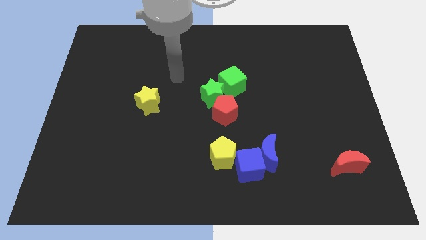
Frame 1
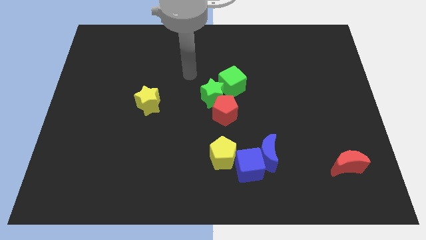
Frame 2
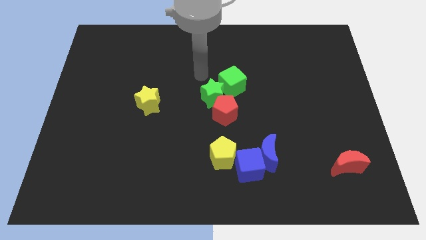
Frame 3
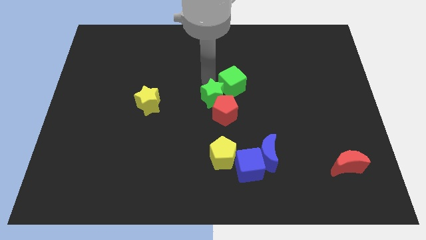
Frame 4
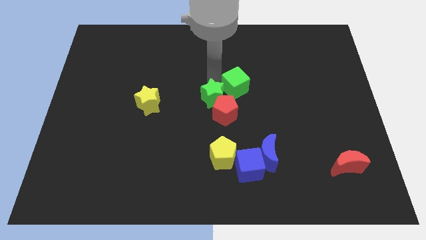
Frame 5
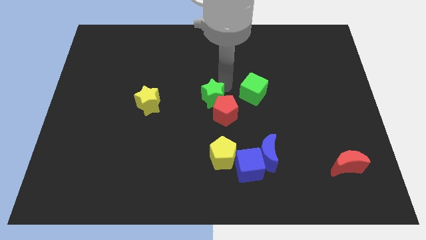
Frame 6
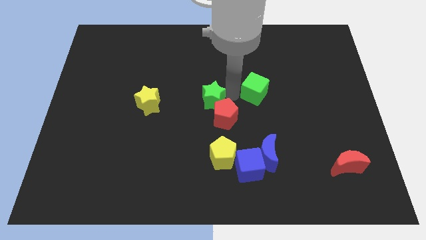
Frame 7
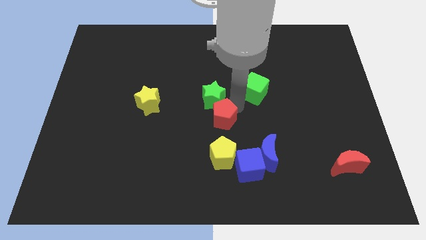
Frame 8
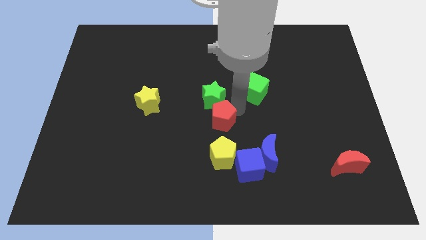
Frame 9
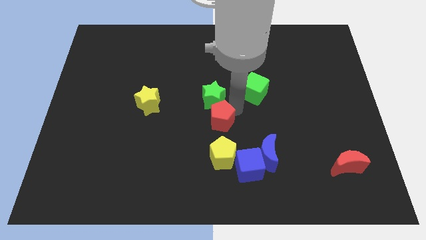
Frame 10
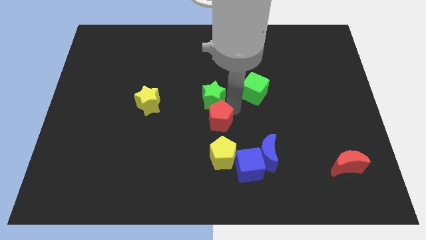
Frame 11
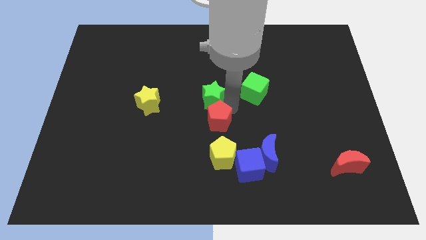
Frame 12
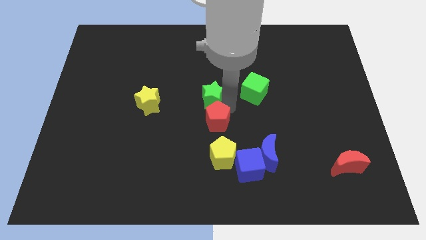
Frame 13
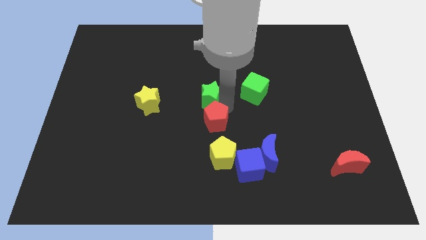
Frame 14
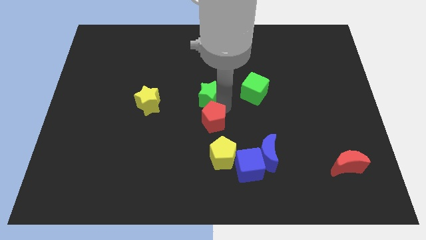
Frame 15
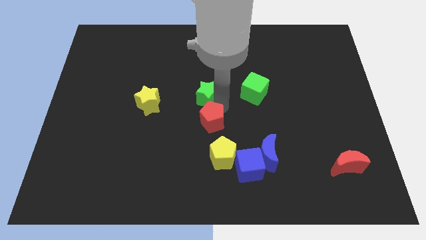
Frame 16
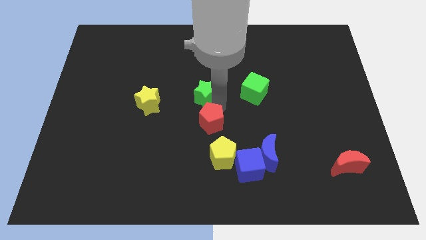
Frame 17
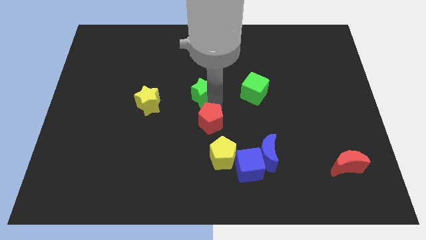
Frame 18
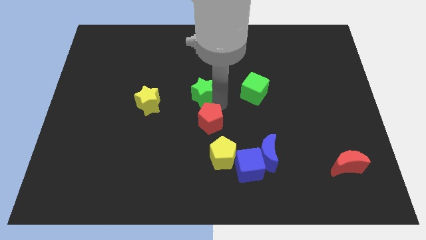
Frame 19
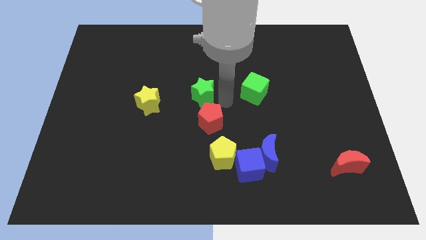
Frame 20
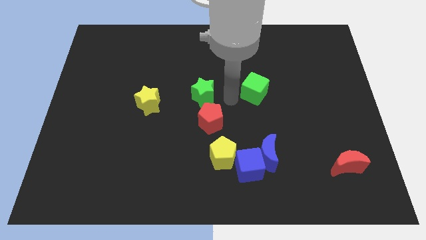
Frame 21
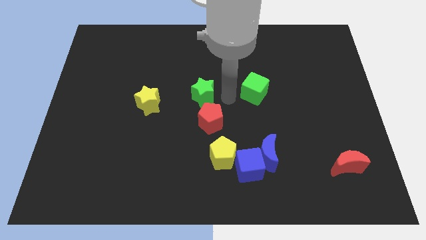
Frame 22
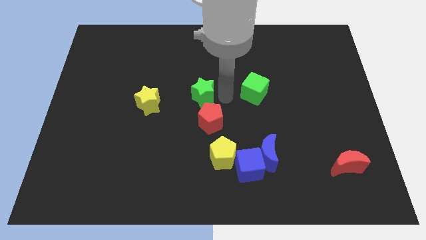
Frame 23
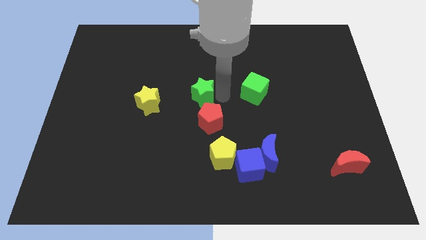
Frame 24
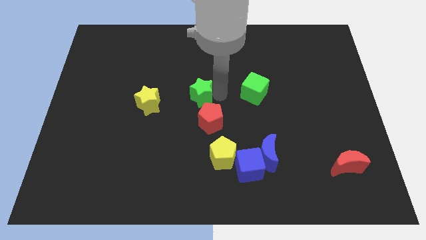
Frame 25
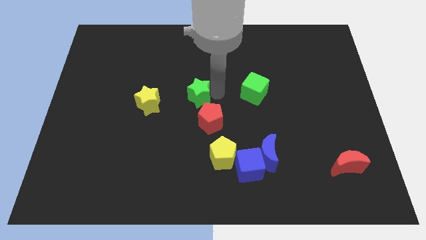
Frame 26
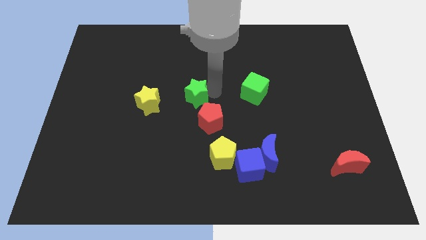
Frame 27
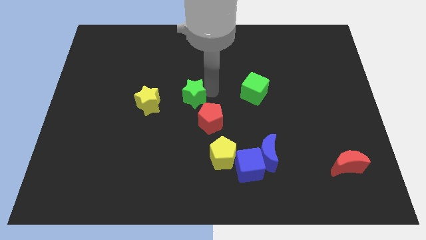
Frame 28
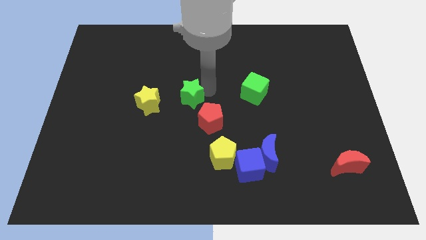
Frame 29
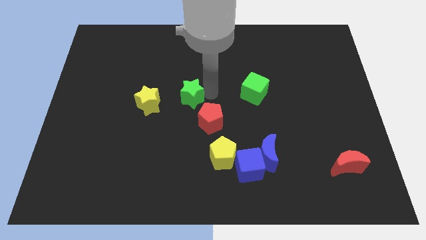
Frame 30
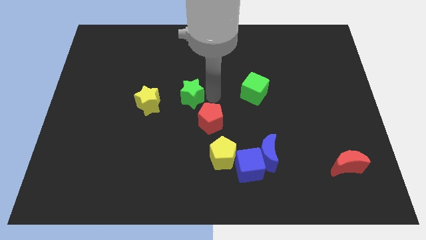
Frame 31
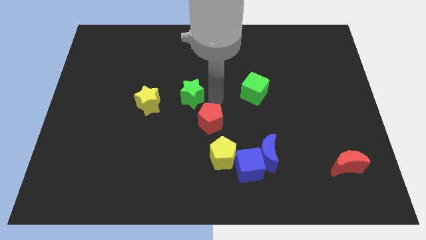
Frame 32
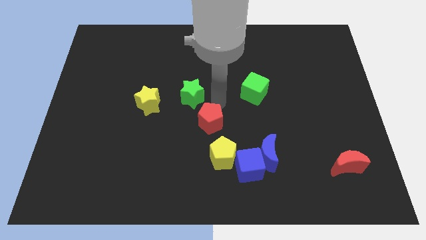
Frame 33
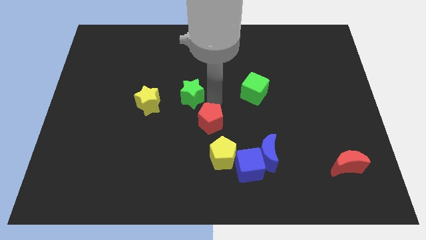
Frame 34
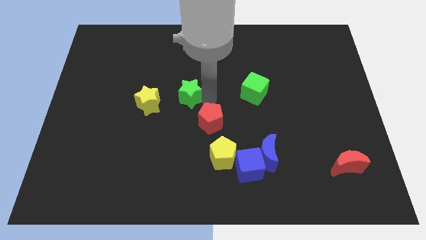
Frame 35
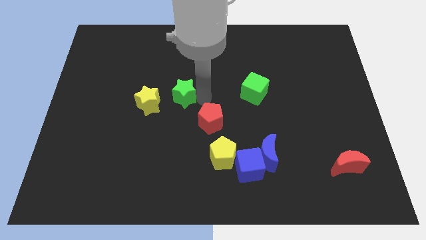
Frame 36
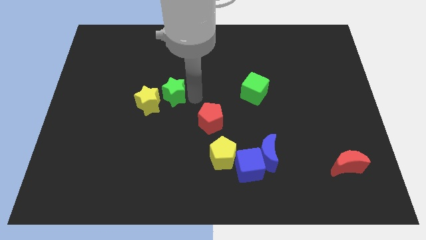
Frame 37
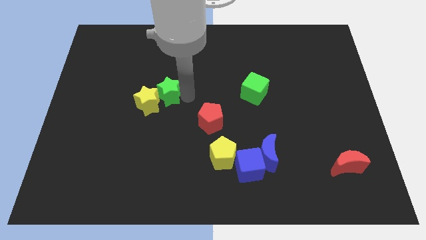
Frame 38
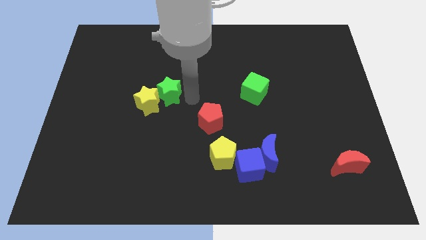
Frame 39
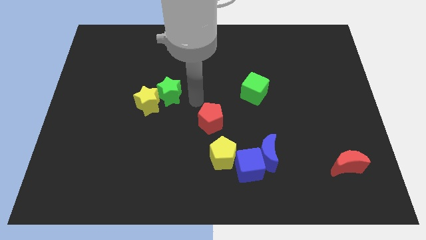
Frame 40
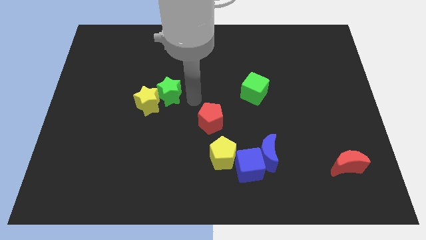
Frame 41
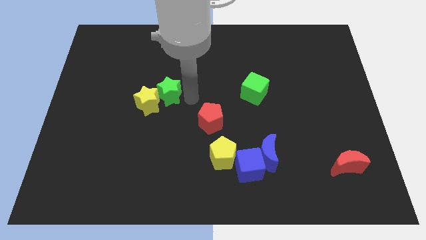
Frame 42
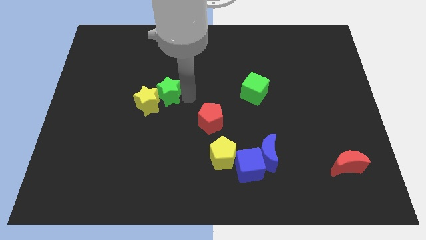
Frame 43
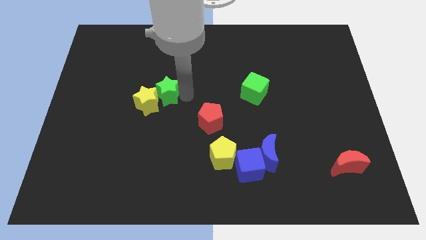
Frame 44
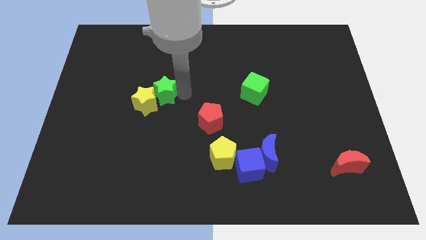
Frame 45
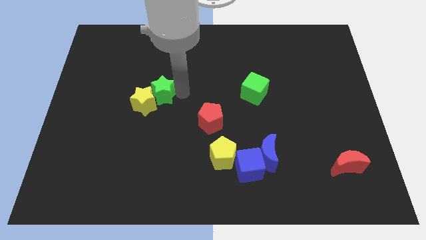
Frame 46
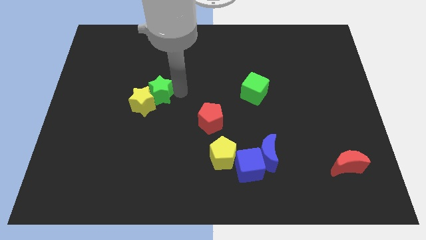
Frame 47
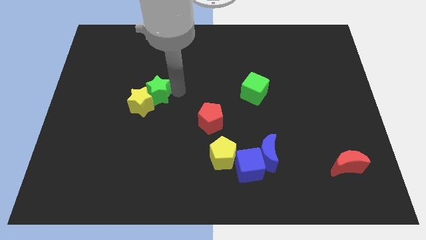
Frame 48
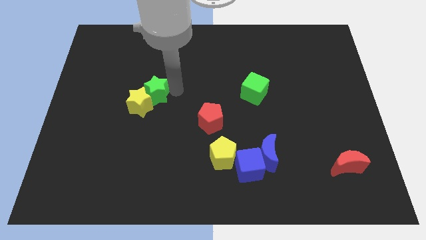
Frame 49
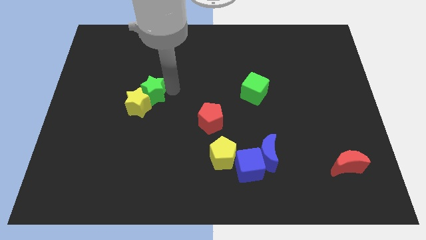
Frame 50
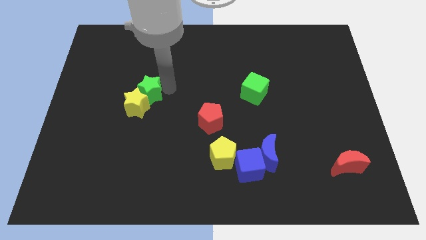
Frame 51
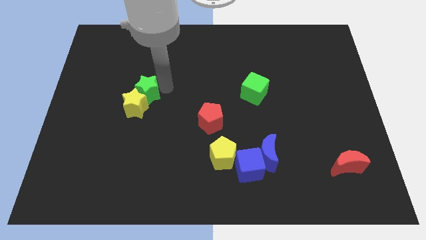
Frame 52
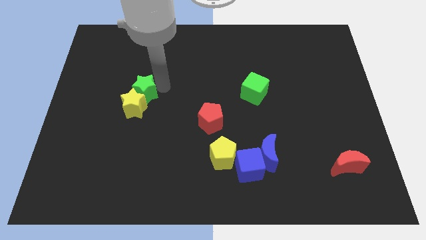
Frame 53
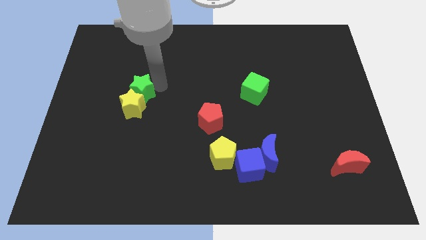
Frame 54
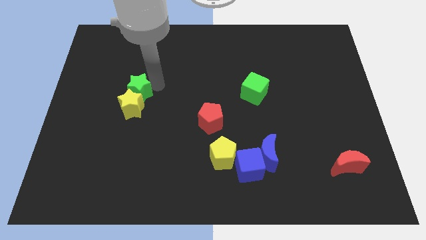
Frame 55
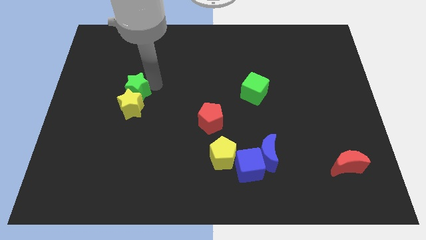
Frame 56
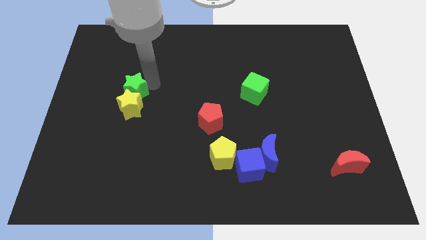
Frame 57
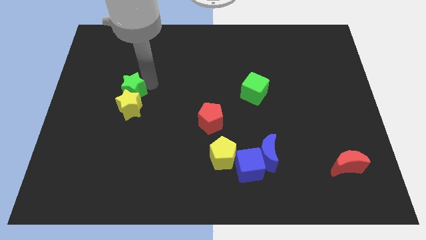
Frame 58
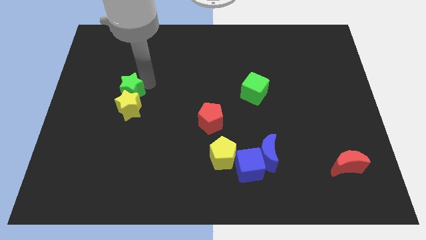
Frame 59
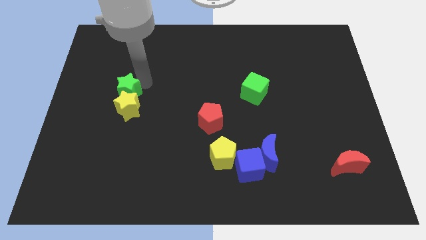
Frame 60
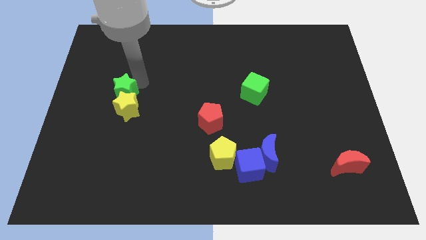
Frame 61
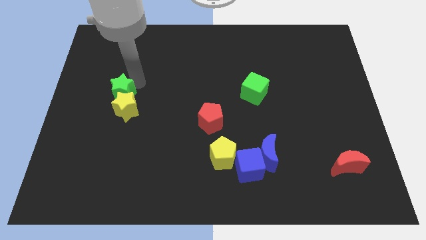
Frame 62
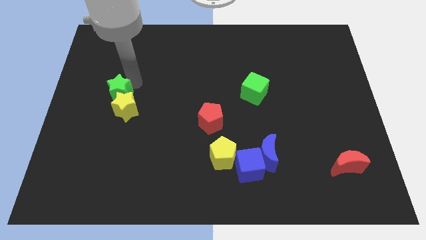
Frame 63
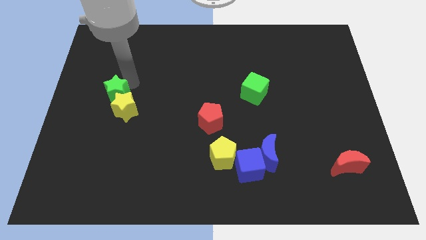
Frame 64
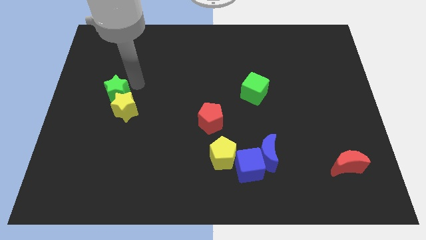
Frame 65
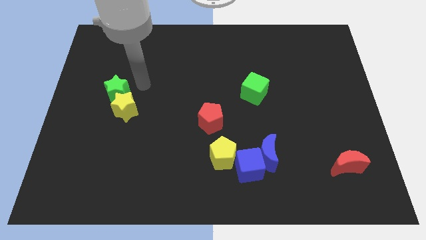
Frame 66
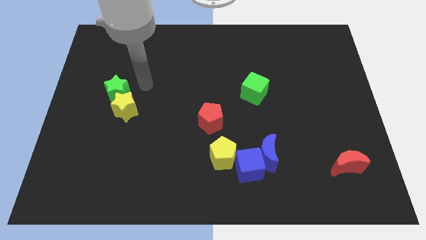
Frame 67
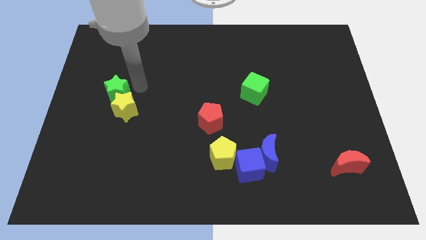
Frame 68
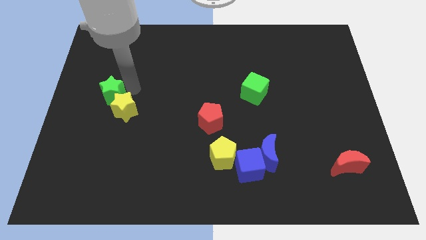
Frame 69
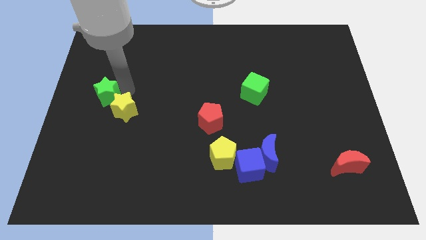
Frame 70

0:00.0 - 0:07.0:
slide the green star to the center left
